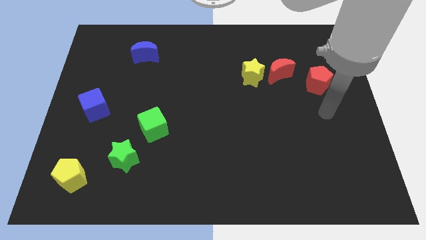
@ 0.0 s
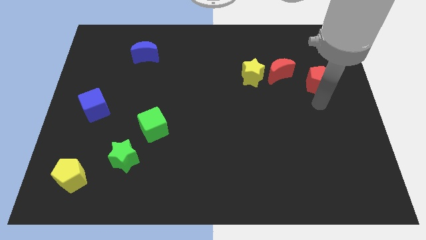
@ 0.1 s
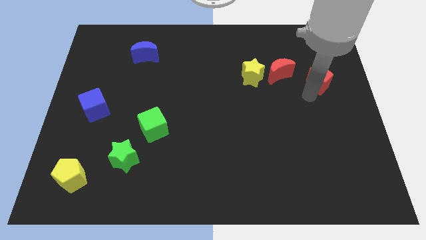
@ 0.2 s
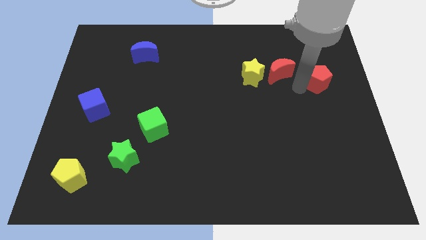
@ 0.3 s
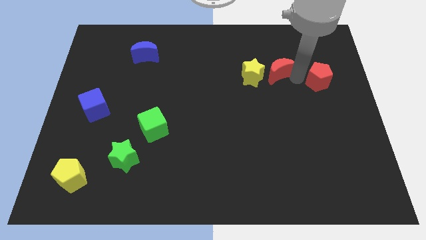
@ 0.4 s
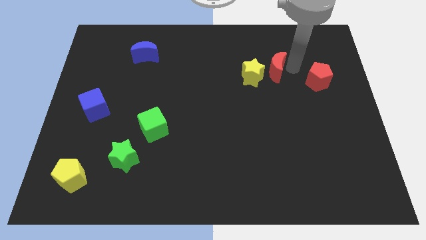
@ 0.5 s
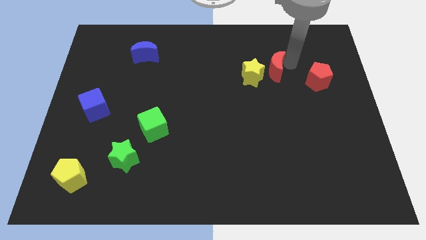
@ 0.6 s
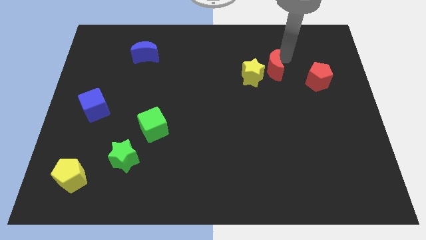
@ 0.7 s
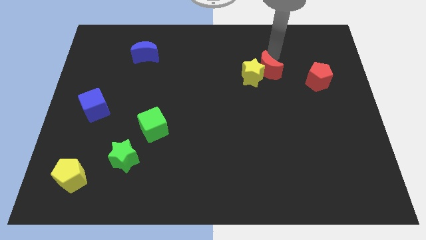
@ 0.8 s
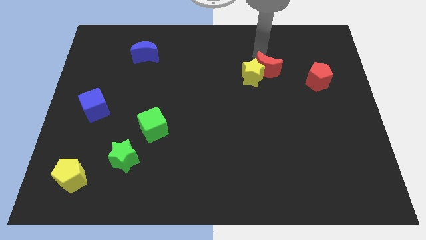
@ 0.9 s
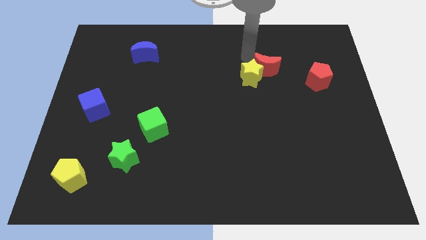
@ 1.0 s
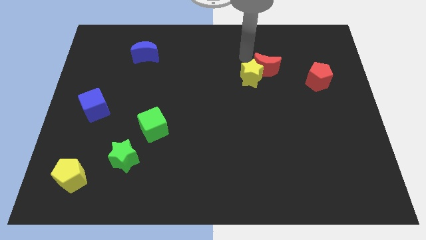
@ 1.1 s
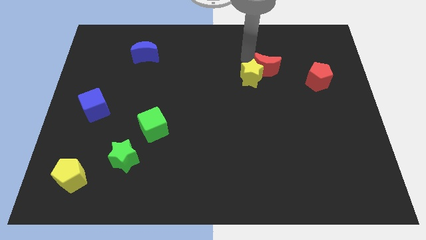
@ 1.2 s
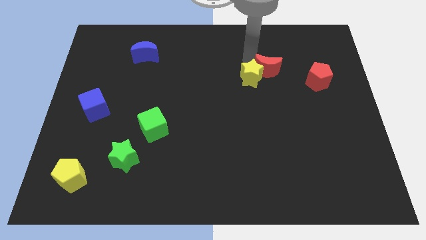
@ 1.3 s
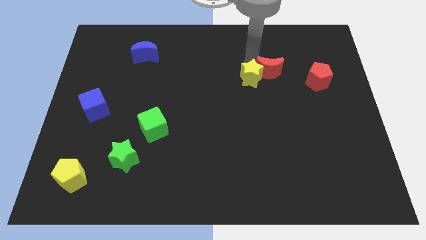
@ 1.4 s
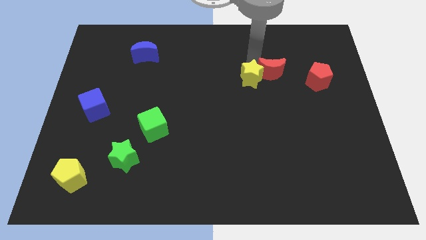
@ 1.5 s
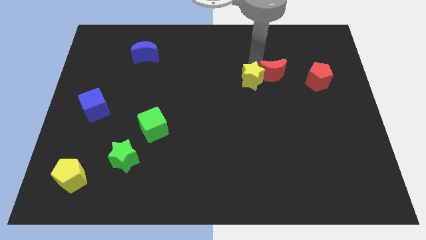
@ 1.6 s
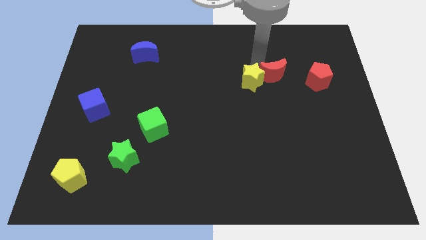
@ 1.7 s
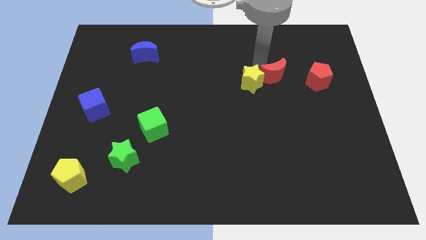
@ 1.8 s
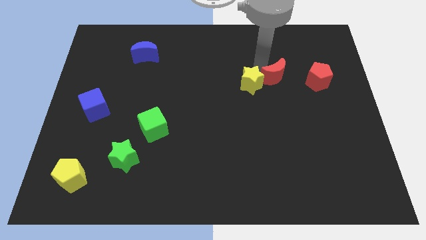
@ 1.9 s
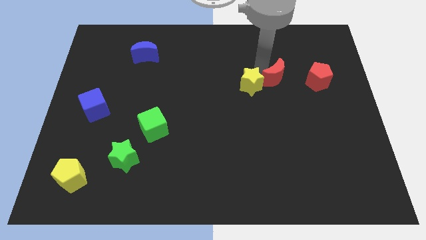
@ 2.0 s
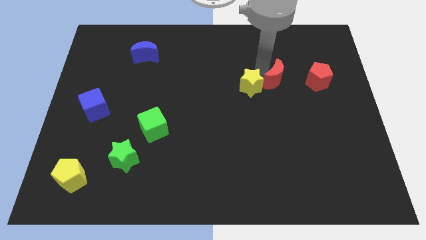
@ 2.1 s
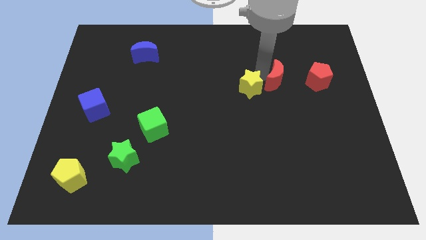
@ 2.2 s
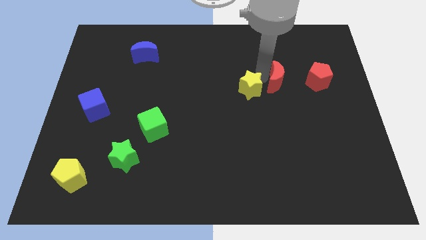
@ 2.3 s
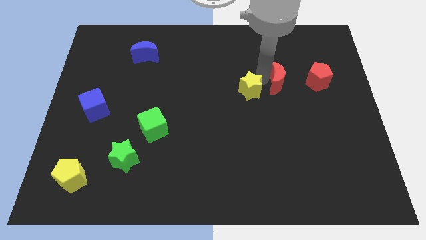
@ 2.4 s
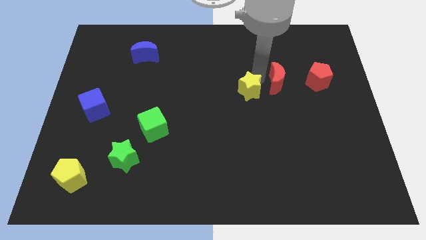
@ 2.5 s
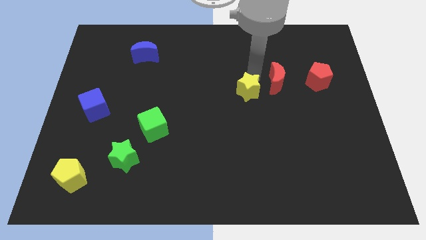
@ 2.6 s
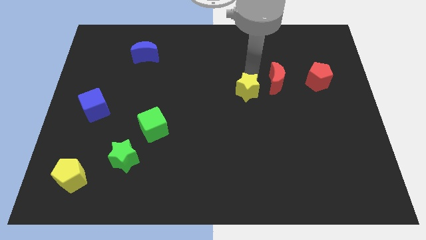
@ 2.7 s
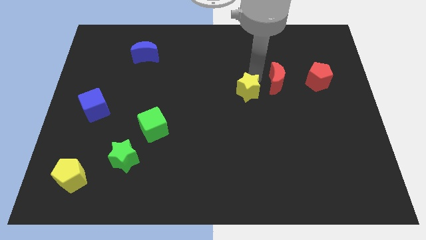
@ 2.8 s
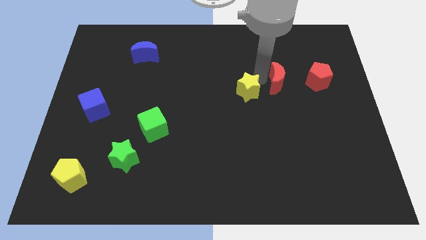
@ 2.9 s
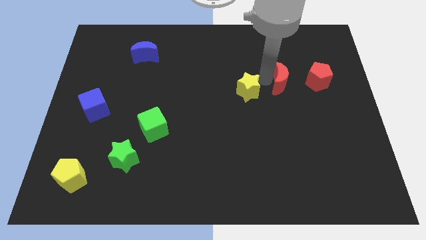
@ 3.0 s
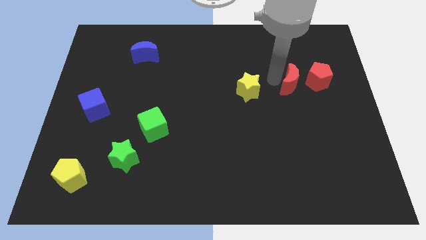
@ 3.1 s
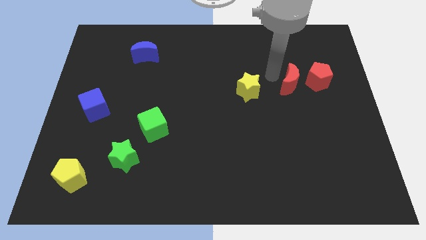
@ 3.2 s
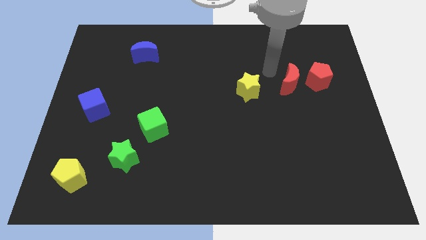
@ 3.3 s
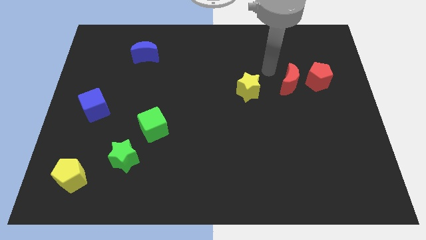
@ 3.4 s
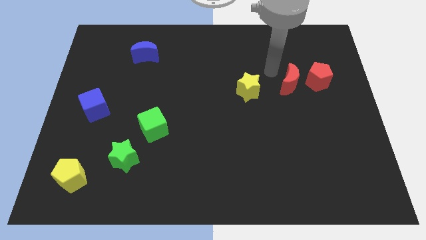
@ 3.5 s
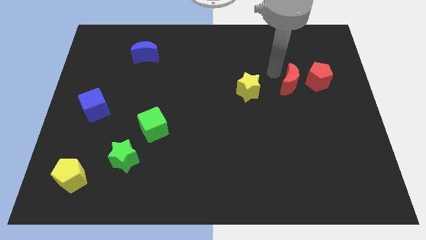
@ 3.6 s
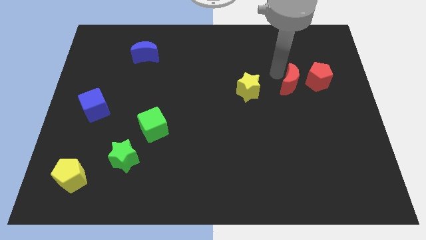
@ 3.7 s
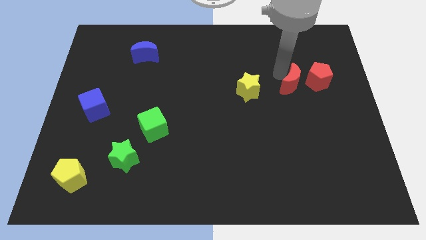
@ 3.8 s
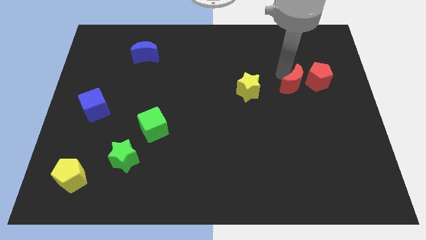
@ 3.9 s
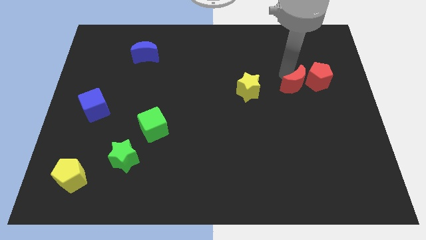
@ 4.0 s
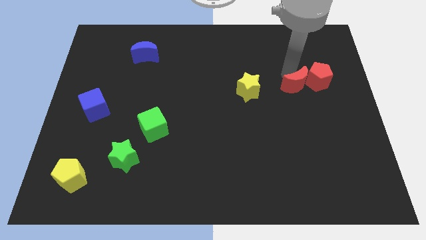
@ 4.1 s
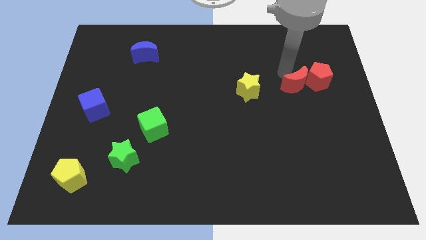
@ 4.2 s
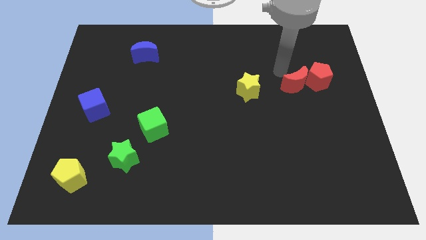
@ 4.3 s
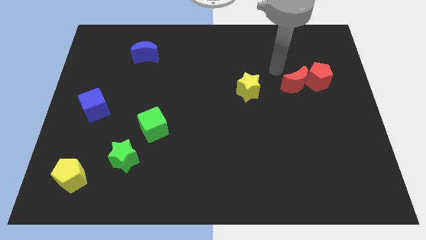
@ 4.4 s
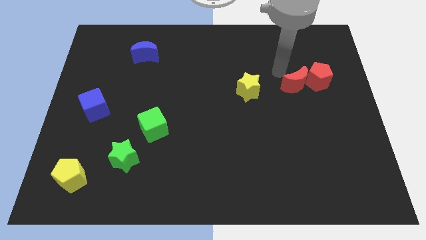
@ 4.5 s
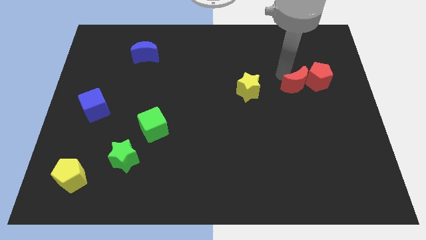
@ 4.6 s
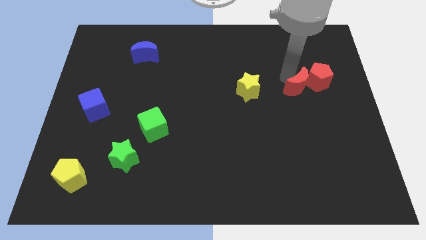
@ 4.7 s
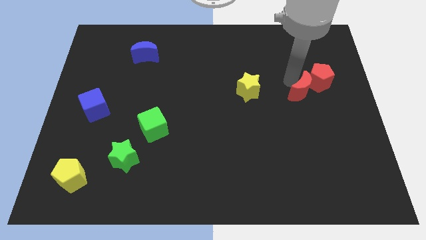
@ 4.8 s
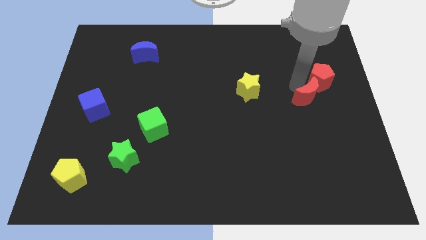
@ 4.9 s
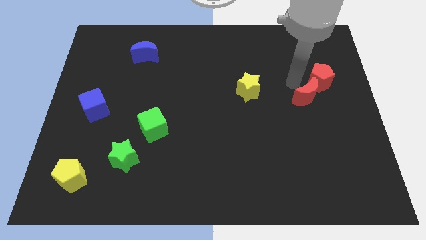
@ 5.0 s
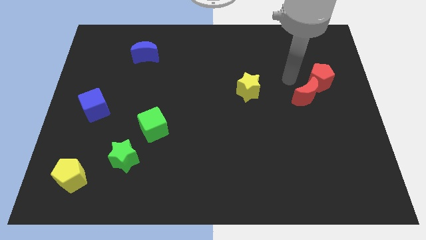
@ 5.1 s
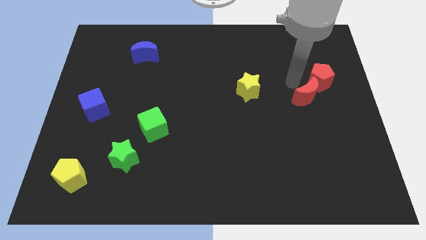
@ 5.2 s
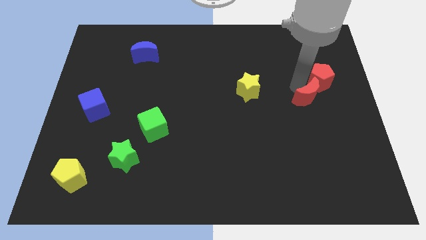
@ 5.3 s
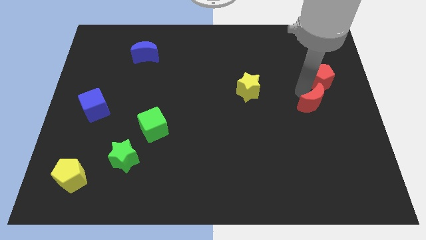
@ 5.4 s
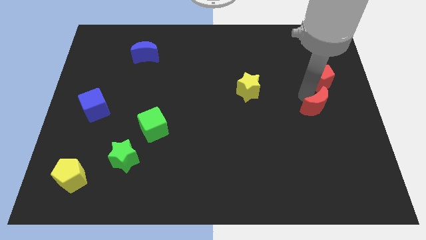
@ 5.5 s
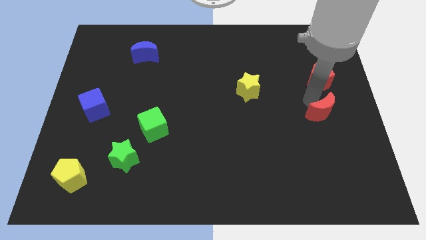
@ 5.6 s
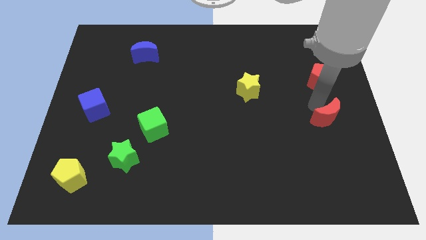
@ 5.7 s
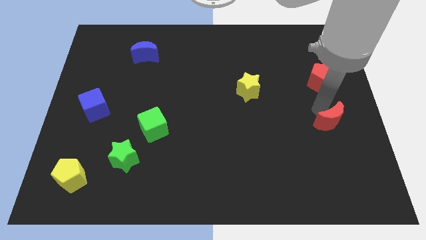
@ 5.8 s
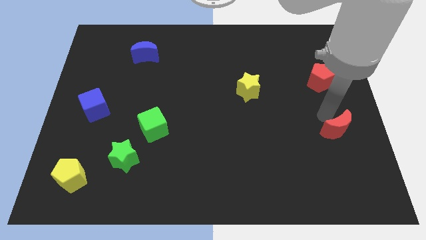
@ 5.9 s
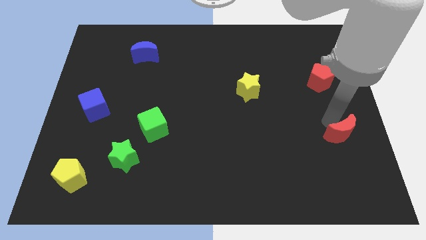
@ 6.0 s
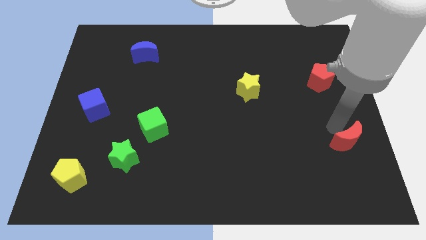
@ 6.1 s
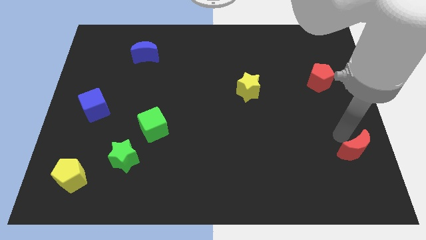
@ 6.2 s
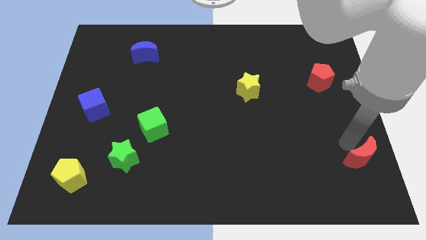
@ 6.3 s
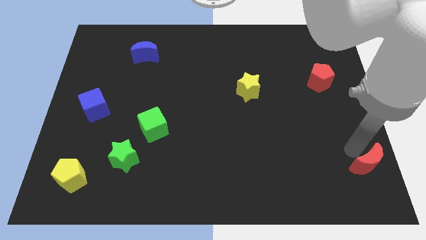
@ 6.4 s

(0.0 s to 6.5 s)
slide the red moon to the bottom right
